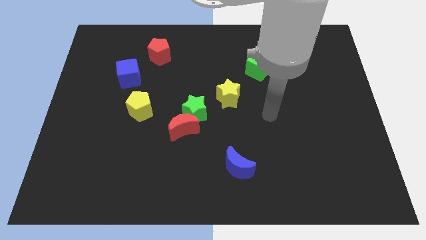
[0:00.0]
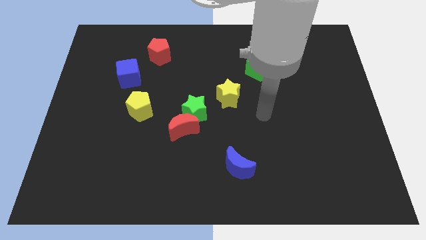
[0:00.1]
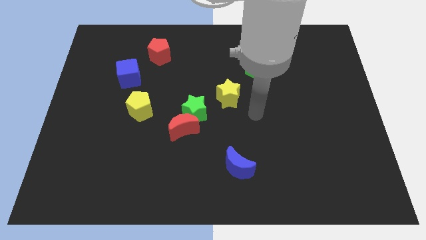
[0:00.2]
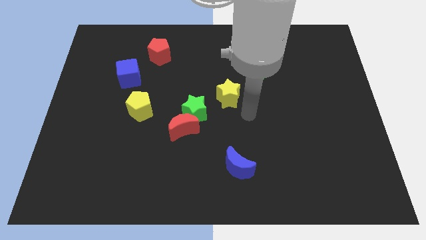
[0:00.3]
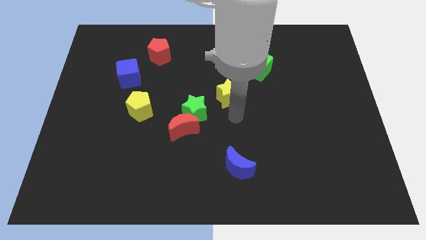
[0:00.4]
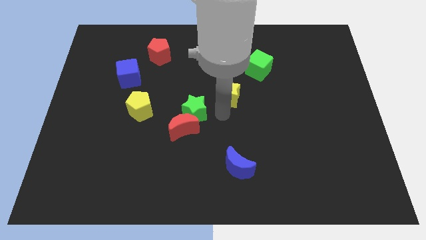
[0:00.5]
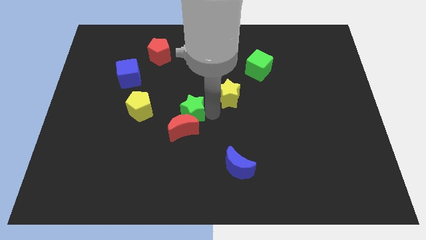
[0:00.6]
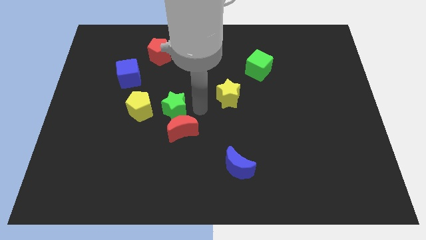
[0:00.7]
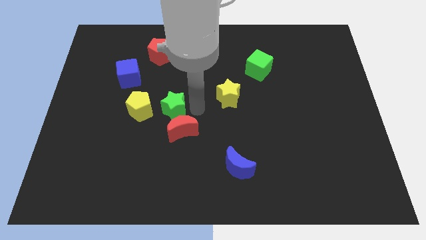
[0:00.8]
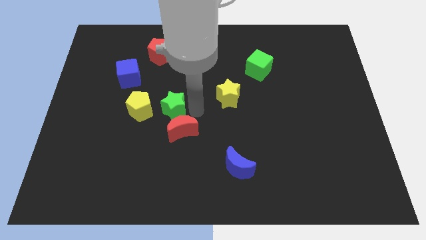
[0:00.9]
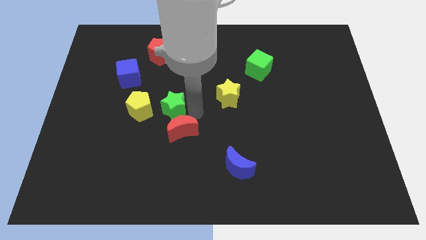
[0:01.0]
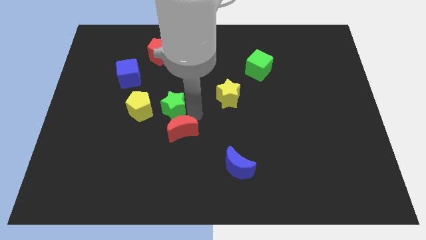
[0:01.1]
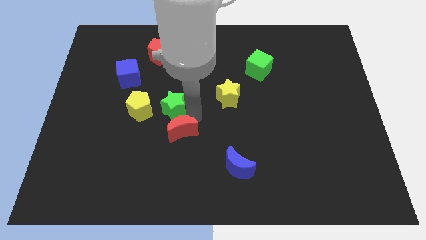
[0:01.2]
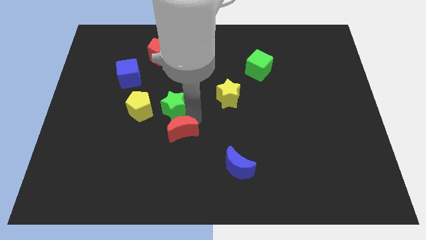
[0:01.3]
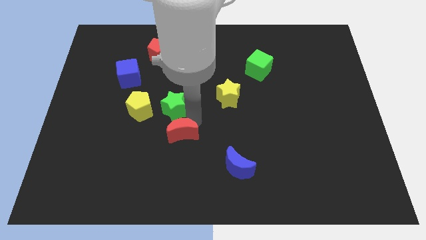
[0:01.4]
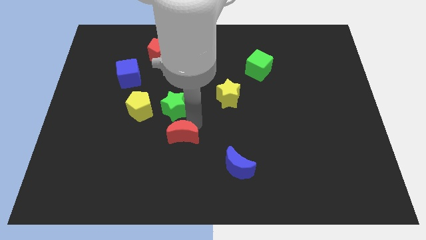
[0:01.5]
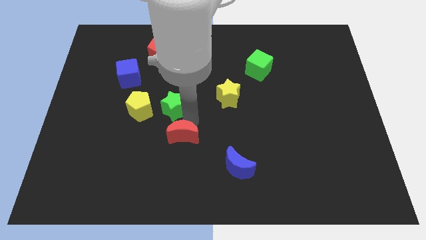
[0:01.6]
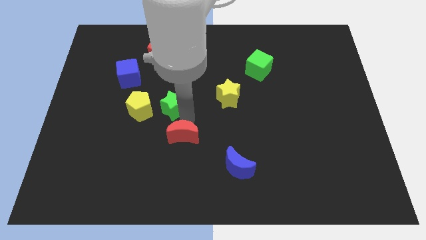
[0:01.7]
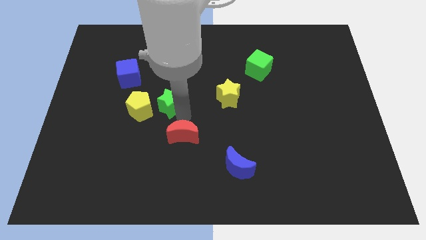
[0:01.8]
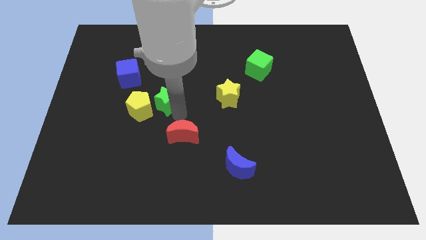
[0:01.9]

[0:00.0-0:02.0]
pull the red moon apart from the green star

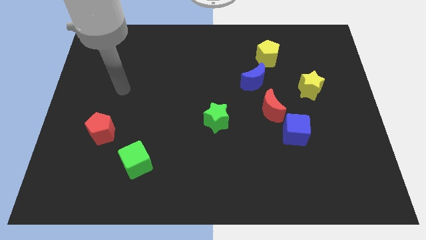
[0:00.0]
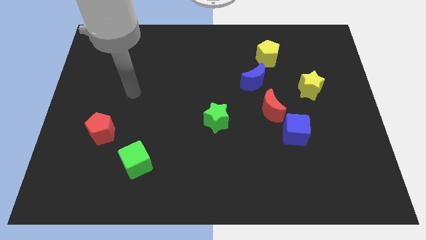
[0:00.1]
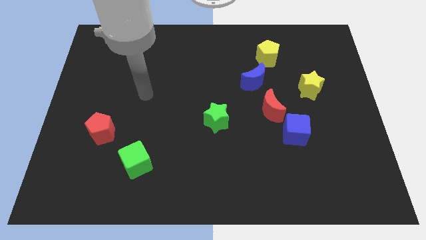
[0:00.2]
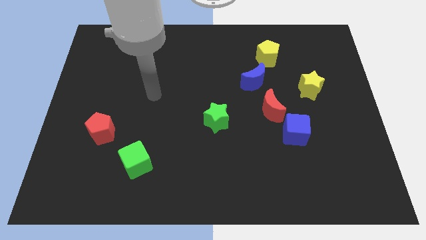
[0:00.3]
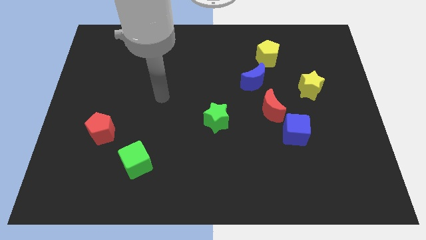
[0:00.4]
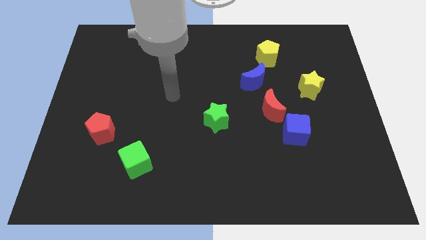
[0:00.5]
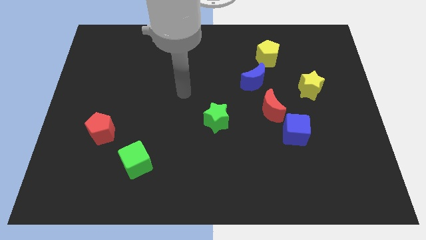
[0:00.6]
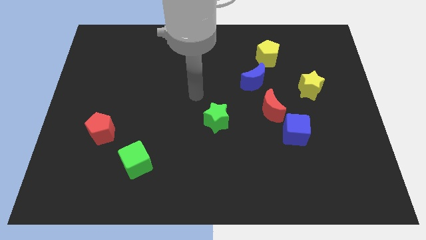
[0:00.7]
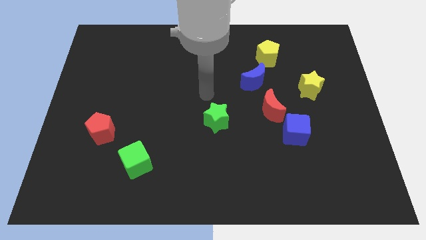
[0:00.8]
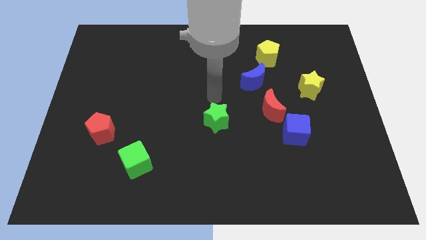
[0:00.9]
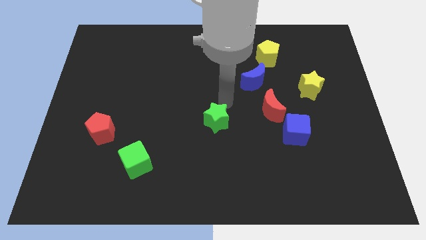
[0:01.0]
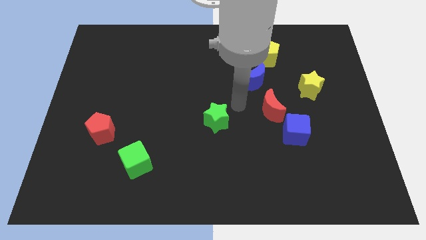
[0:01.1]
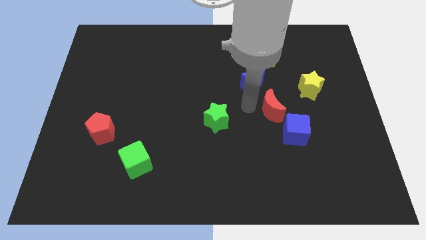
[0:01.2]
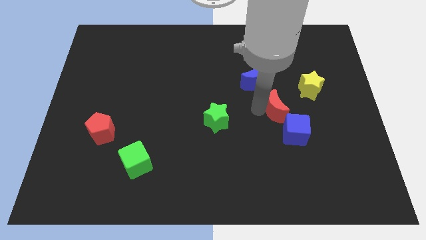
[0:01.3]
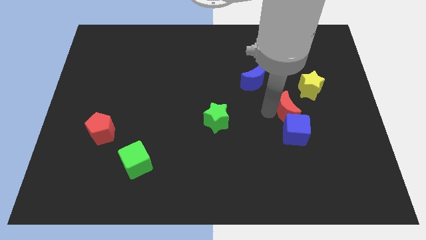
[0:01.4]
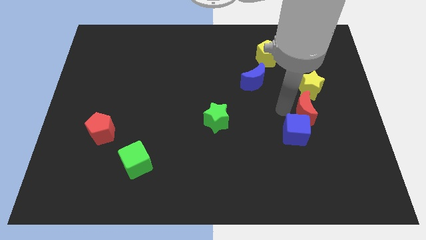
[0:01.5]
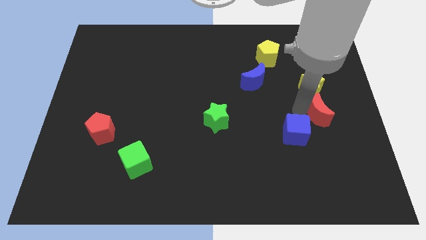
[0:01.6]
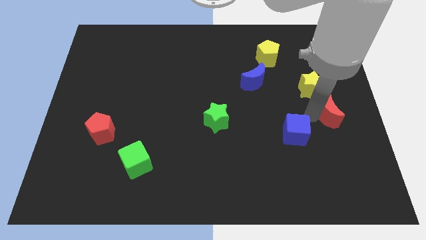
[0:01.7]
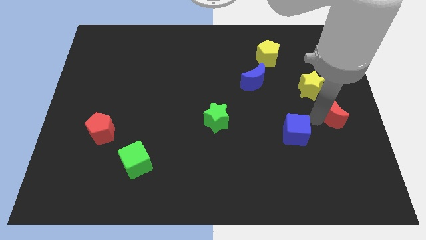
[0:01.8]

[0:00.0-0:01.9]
pull the blue cube apart from the red moon

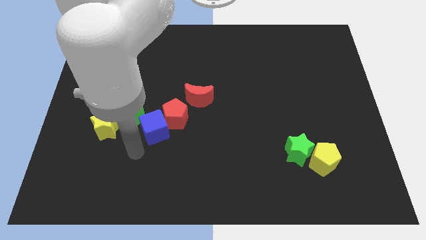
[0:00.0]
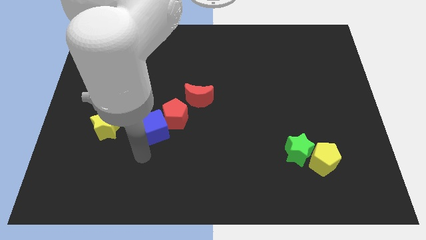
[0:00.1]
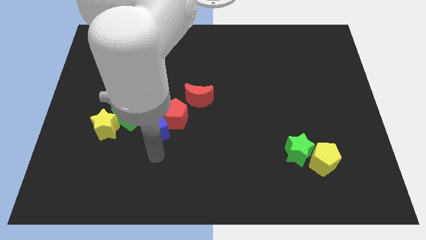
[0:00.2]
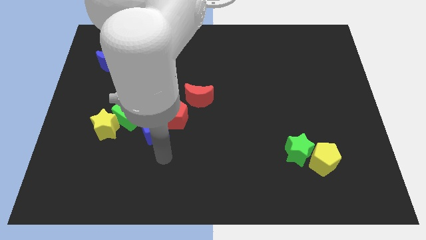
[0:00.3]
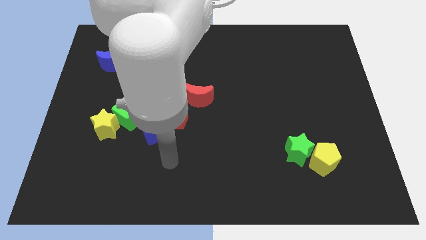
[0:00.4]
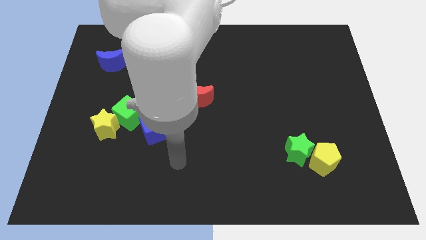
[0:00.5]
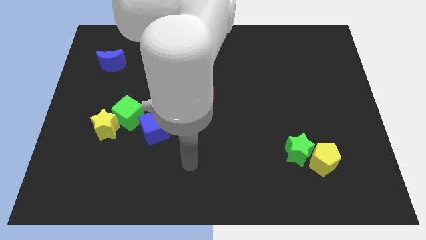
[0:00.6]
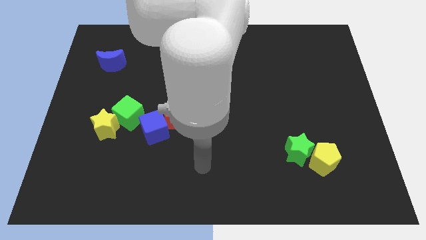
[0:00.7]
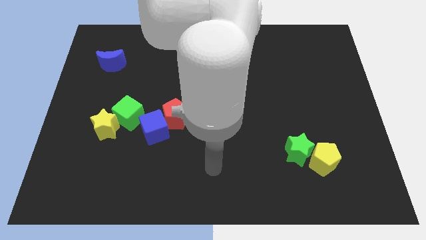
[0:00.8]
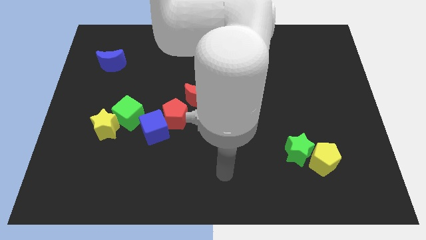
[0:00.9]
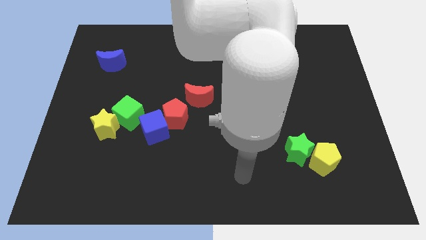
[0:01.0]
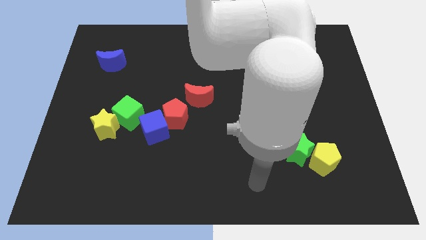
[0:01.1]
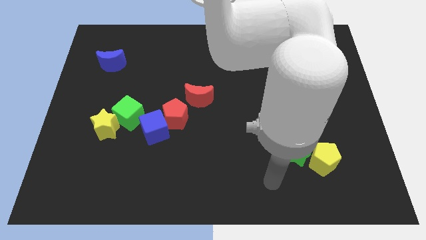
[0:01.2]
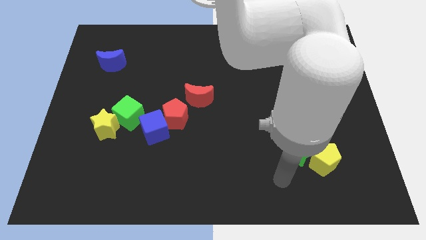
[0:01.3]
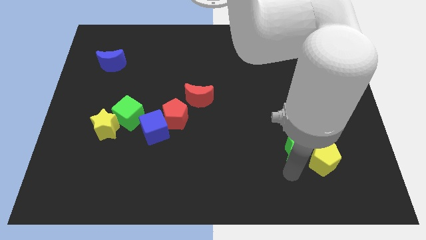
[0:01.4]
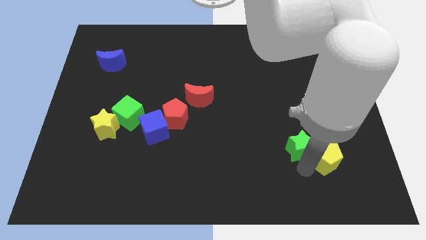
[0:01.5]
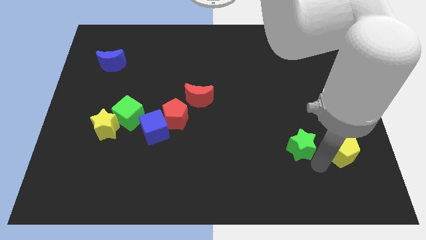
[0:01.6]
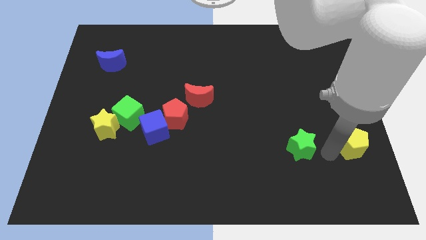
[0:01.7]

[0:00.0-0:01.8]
separate the green star from the yellow pentagon

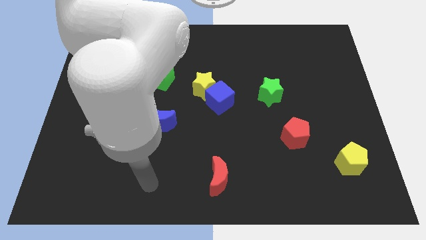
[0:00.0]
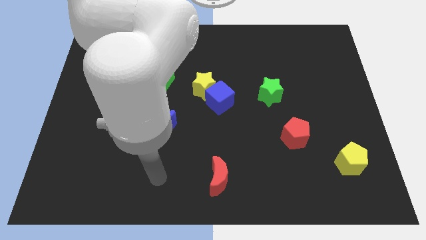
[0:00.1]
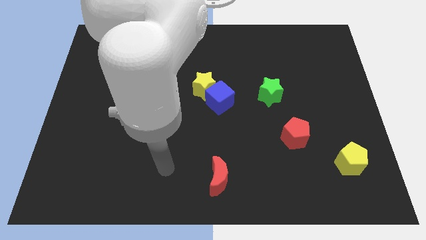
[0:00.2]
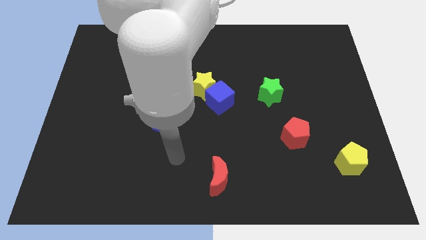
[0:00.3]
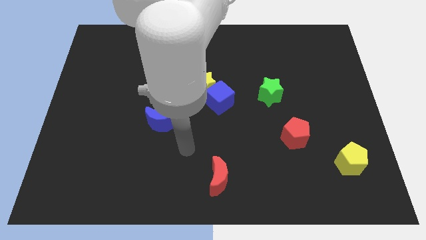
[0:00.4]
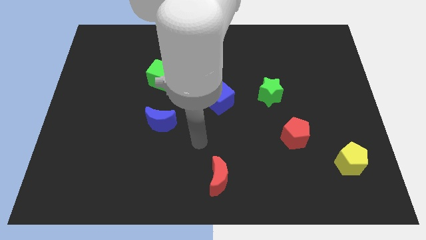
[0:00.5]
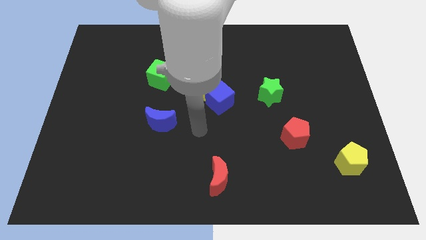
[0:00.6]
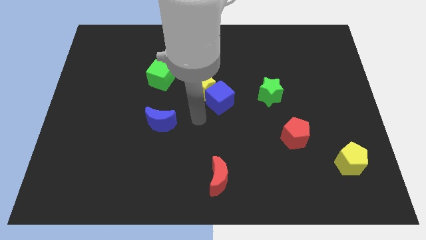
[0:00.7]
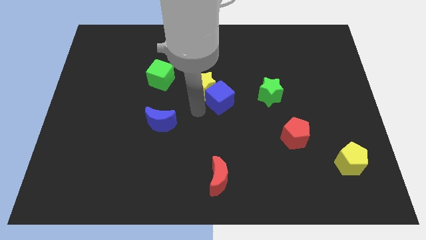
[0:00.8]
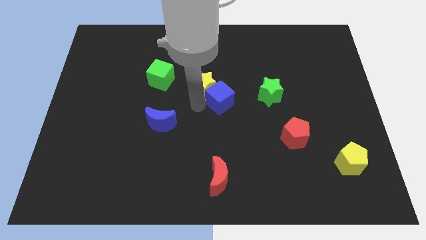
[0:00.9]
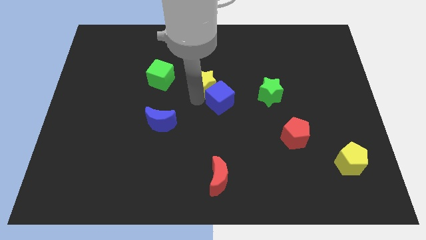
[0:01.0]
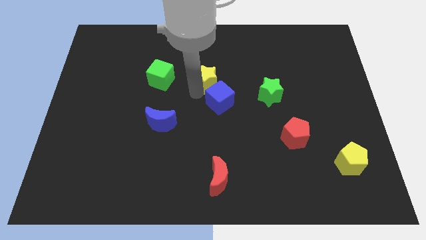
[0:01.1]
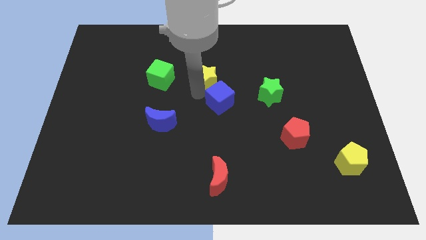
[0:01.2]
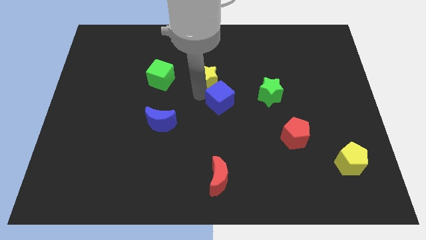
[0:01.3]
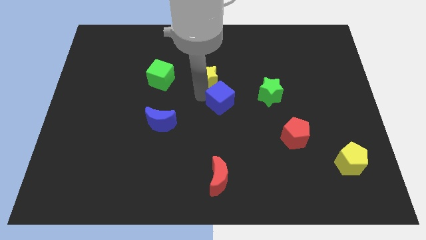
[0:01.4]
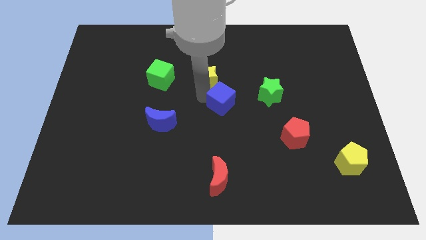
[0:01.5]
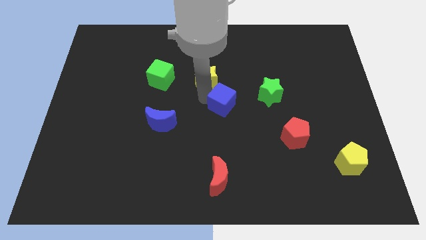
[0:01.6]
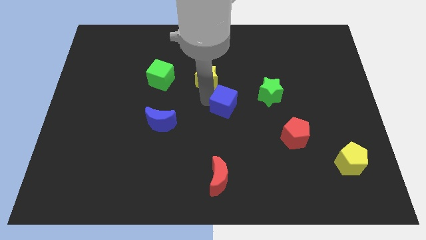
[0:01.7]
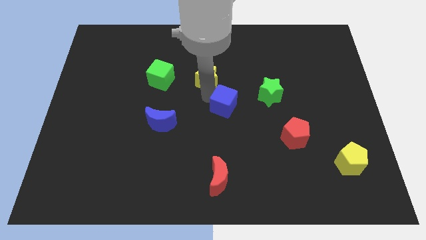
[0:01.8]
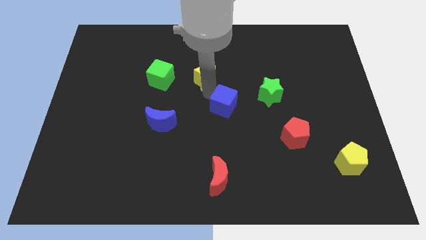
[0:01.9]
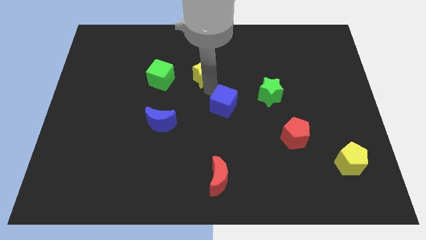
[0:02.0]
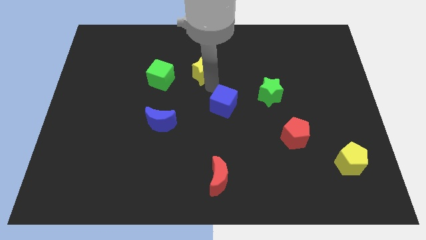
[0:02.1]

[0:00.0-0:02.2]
separate the blue cube from the yellow star

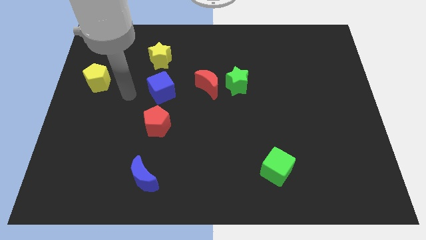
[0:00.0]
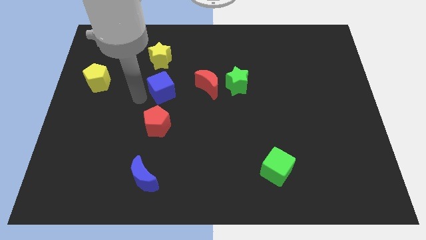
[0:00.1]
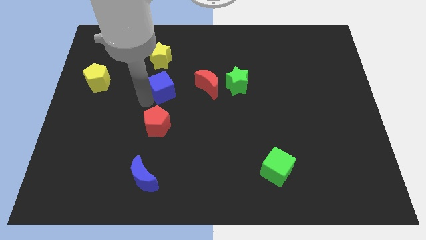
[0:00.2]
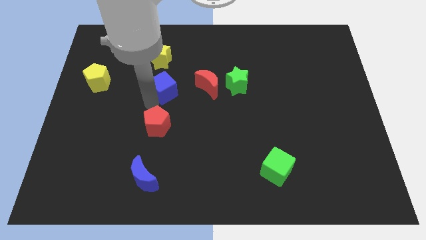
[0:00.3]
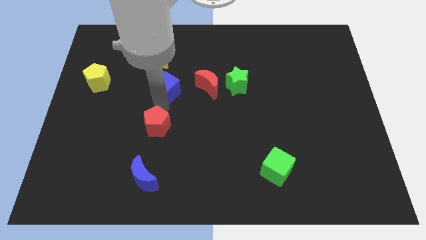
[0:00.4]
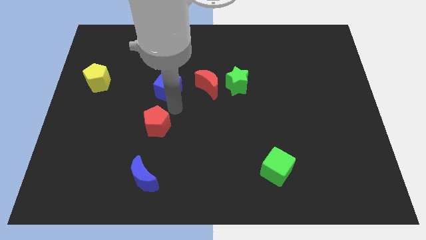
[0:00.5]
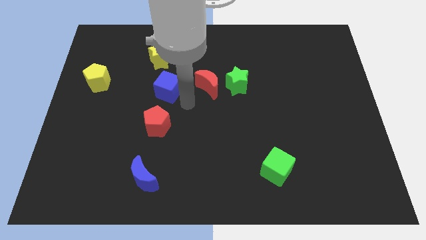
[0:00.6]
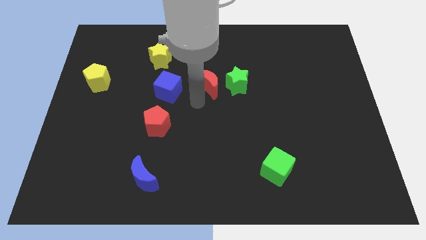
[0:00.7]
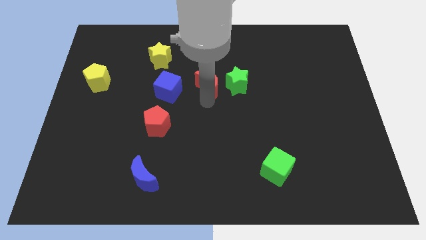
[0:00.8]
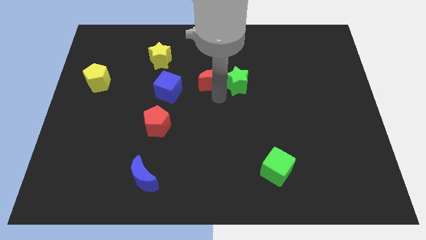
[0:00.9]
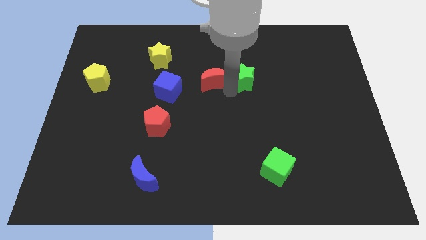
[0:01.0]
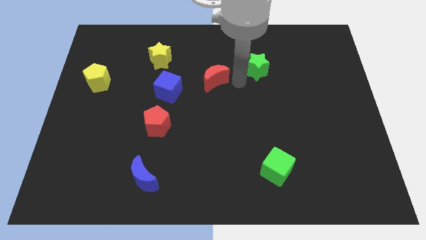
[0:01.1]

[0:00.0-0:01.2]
move the red moon away from the green star

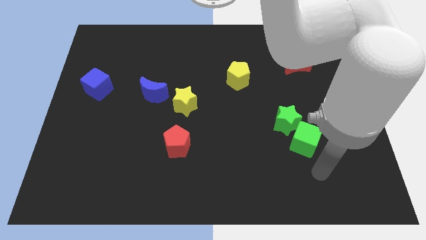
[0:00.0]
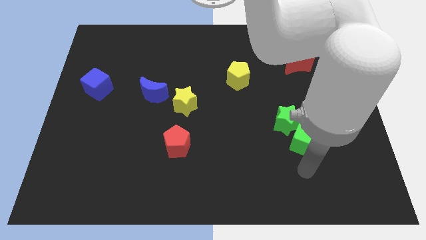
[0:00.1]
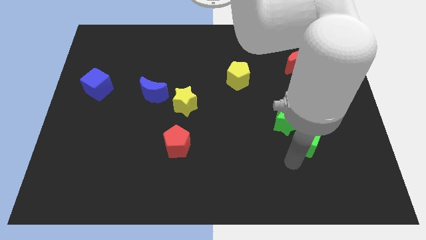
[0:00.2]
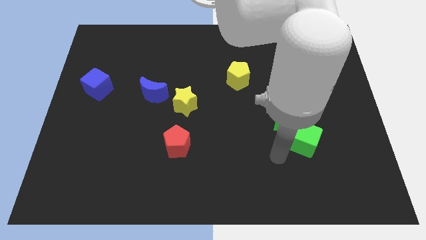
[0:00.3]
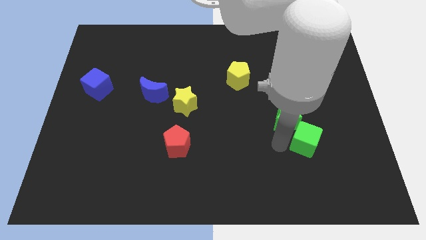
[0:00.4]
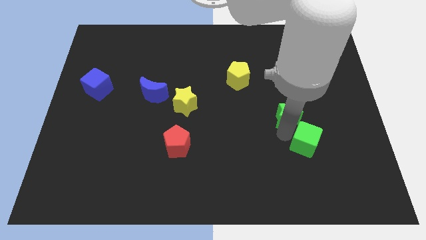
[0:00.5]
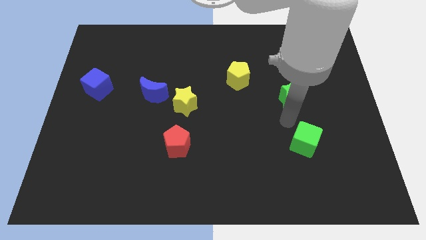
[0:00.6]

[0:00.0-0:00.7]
pull the green cube apart from the green star
